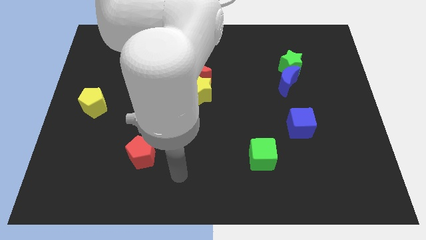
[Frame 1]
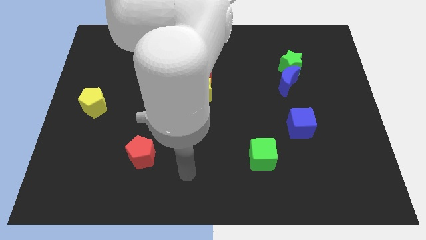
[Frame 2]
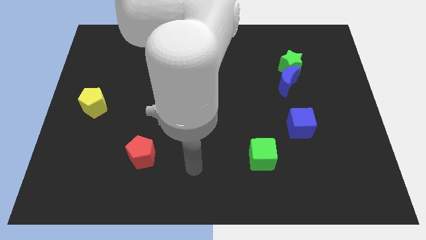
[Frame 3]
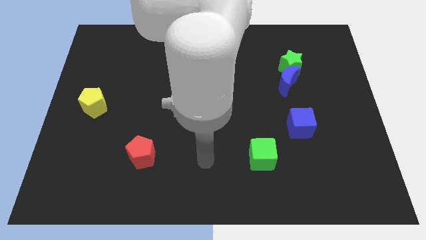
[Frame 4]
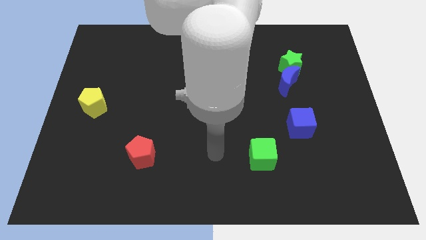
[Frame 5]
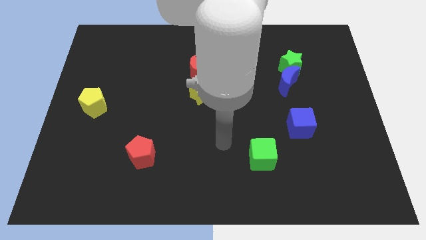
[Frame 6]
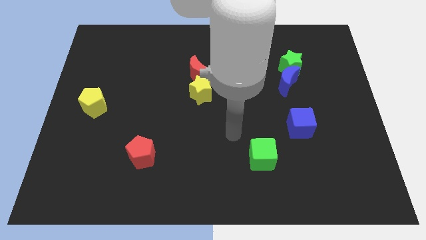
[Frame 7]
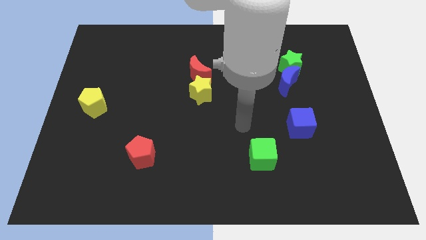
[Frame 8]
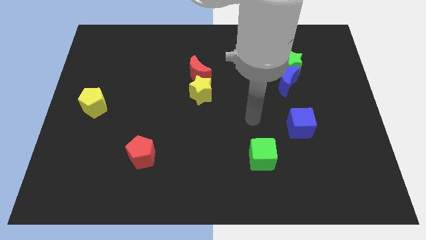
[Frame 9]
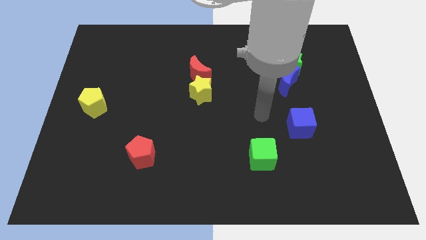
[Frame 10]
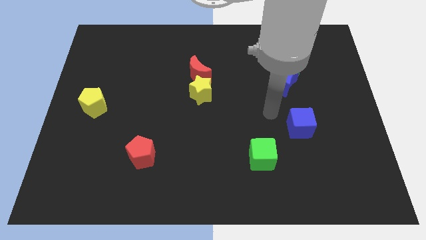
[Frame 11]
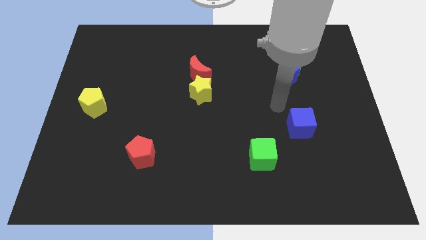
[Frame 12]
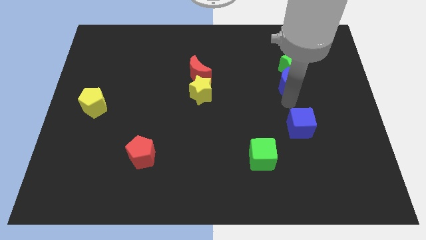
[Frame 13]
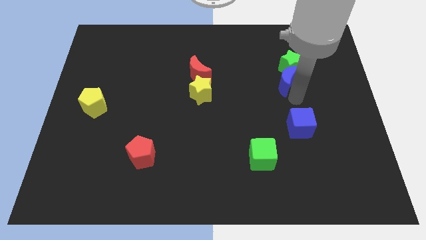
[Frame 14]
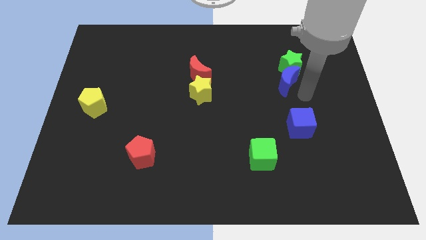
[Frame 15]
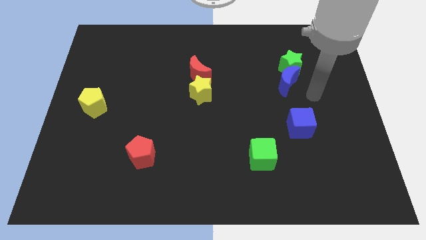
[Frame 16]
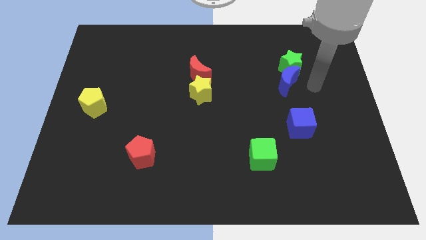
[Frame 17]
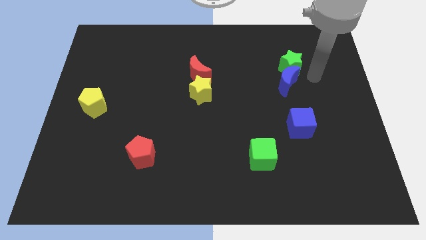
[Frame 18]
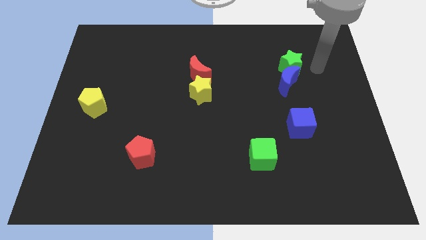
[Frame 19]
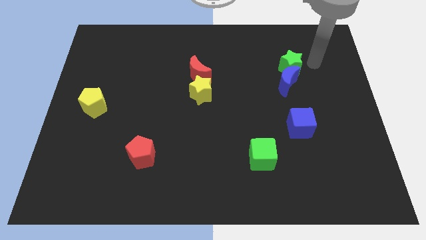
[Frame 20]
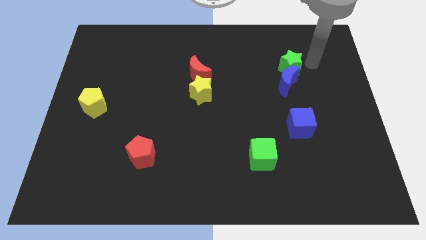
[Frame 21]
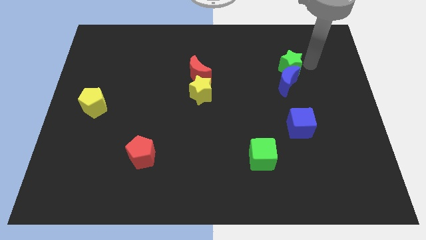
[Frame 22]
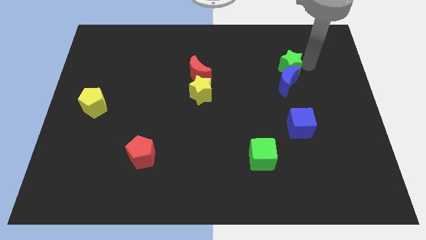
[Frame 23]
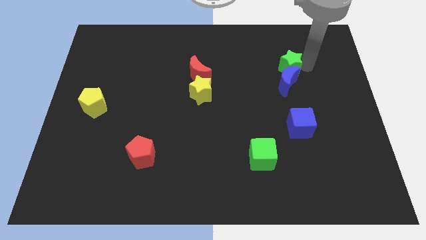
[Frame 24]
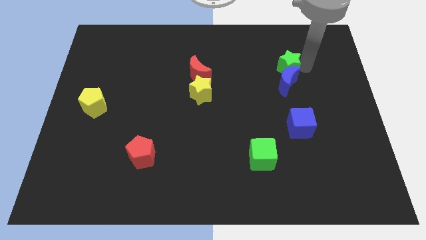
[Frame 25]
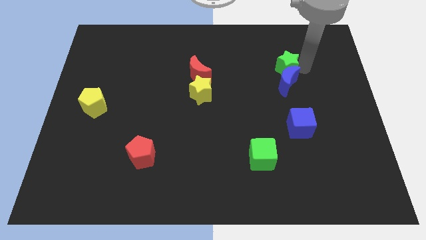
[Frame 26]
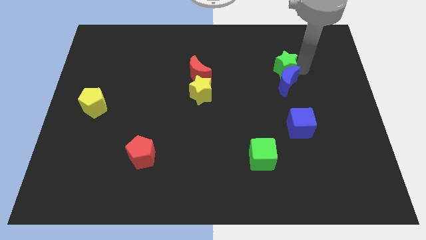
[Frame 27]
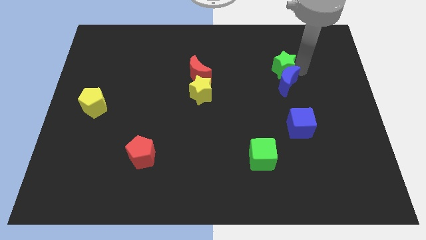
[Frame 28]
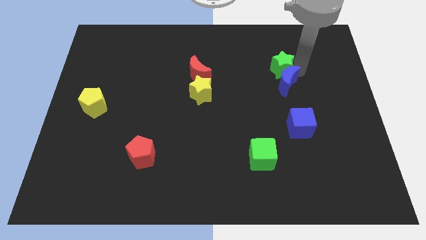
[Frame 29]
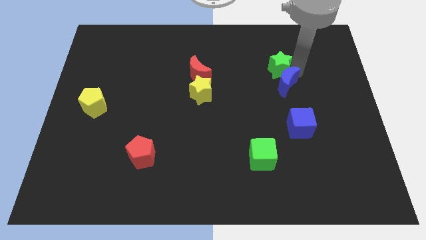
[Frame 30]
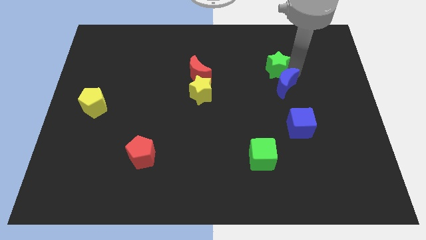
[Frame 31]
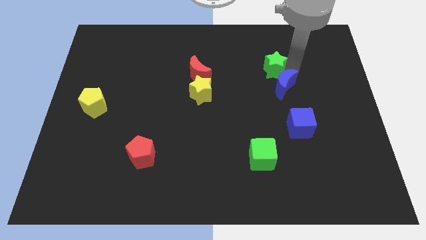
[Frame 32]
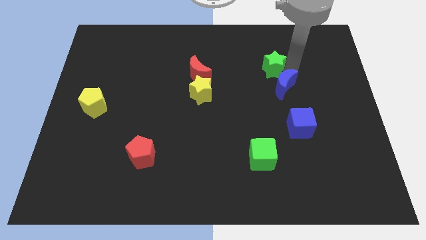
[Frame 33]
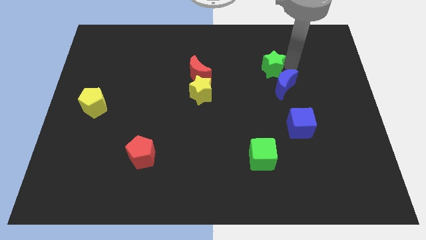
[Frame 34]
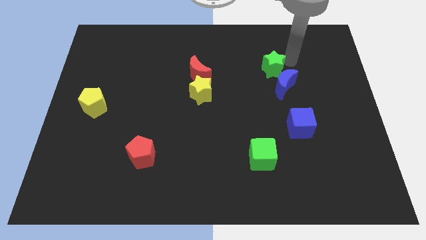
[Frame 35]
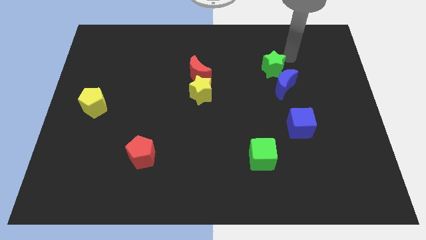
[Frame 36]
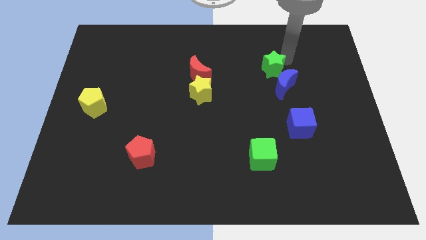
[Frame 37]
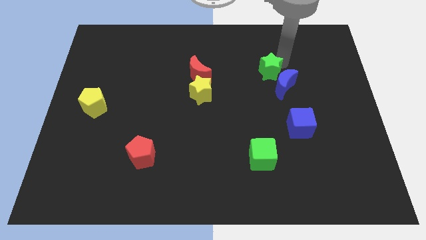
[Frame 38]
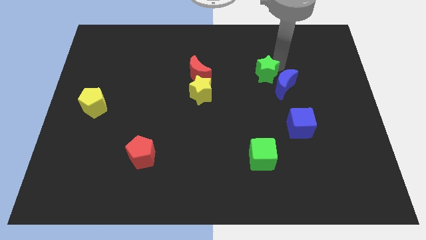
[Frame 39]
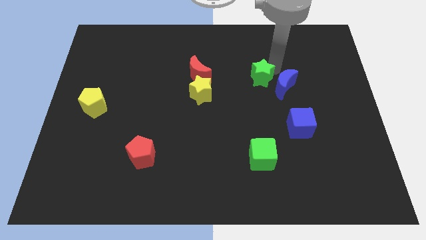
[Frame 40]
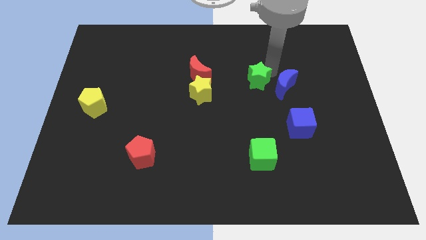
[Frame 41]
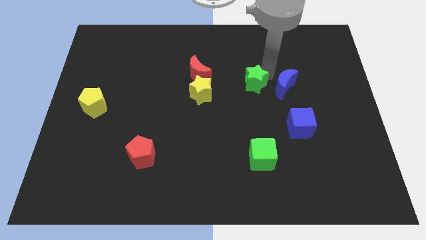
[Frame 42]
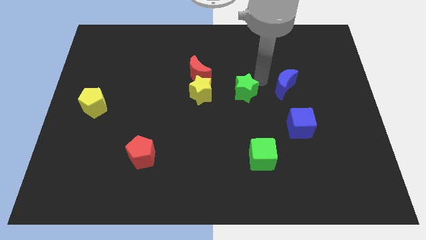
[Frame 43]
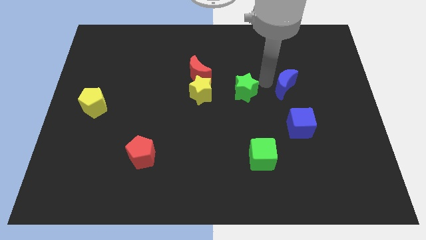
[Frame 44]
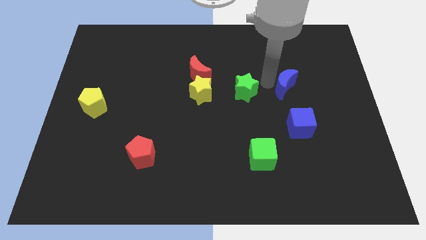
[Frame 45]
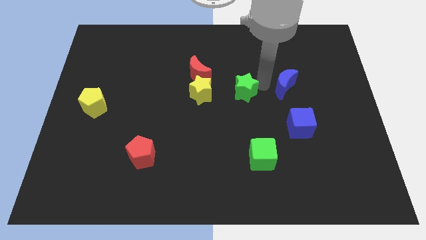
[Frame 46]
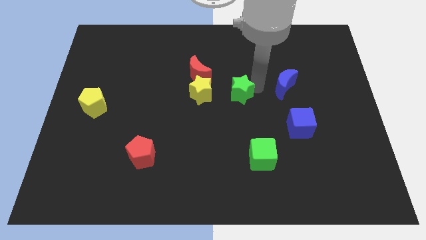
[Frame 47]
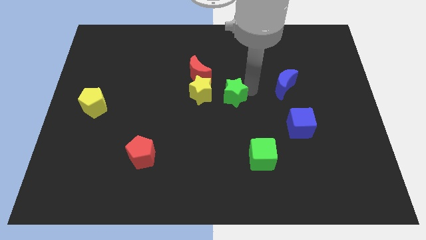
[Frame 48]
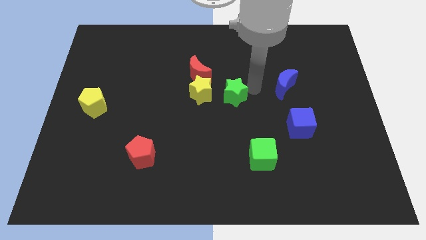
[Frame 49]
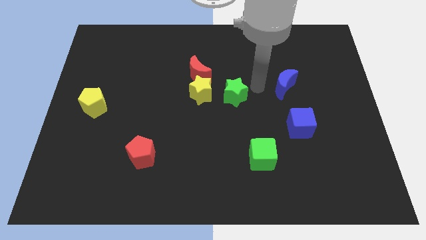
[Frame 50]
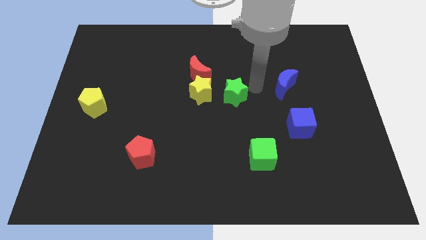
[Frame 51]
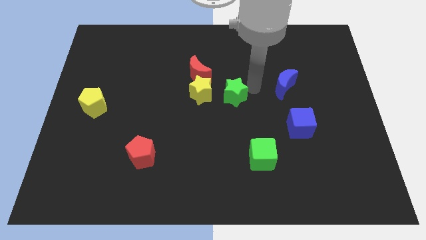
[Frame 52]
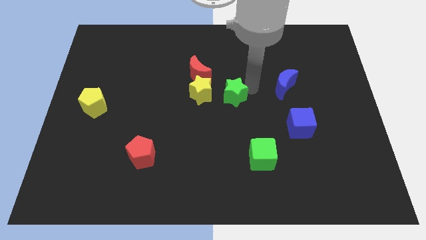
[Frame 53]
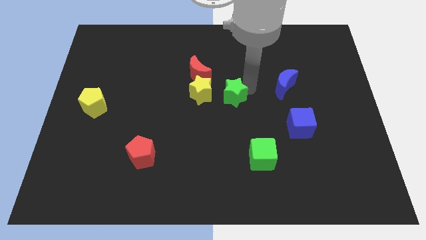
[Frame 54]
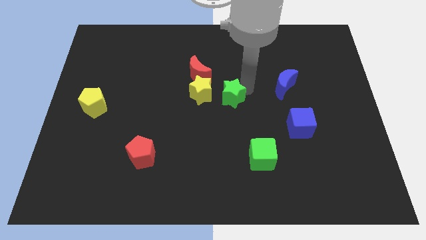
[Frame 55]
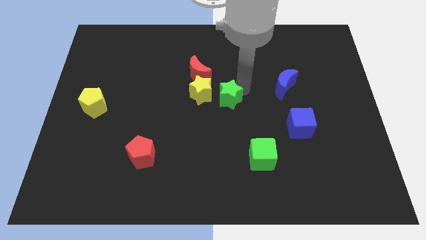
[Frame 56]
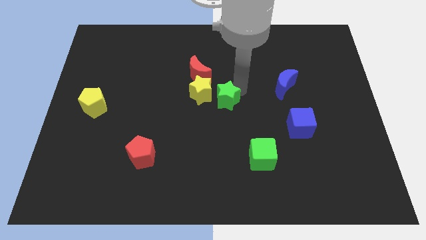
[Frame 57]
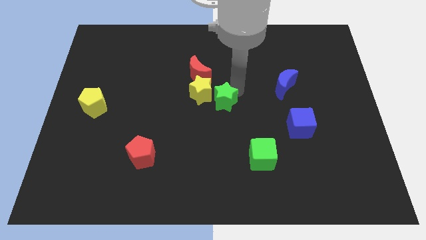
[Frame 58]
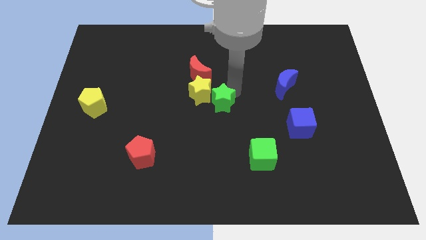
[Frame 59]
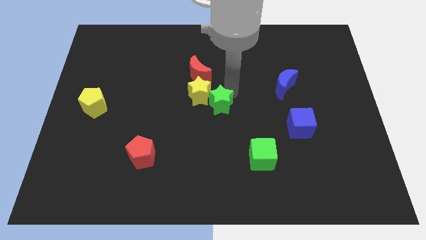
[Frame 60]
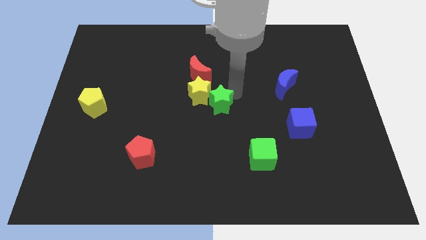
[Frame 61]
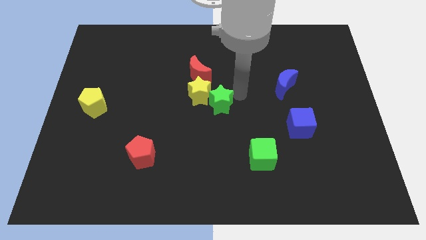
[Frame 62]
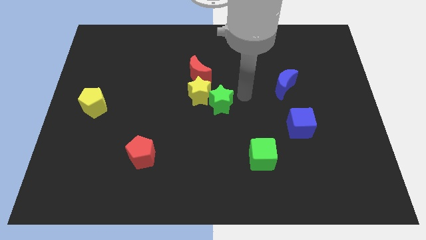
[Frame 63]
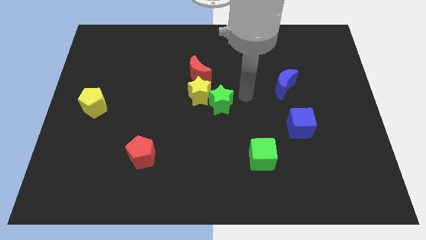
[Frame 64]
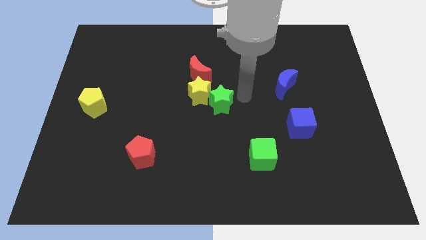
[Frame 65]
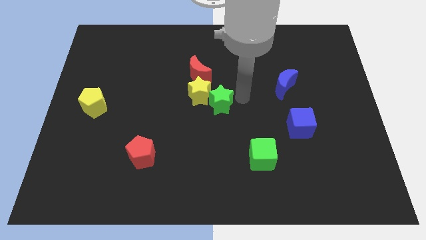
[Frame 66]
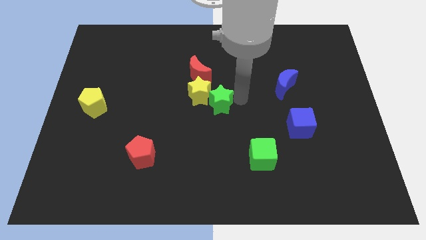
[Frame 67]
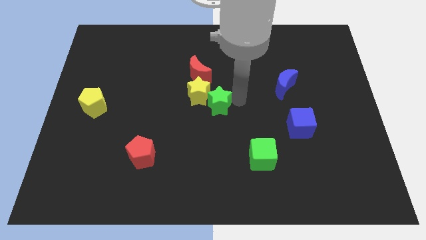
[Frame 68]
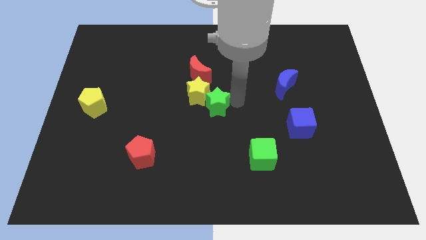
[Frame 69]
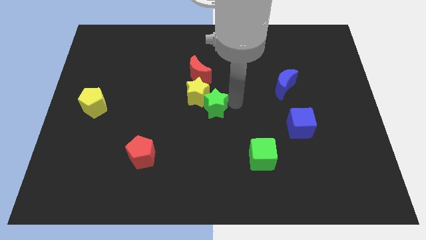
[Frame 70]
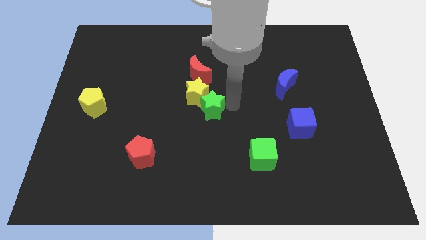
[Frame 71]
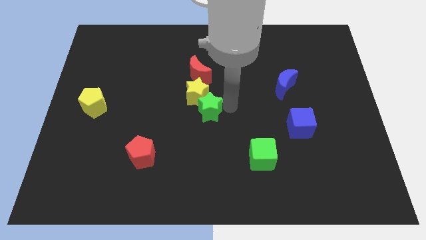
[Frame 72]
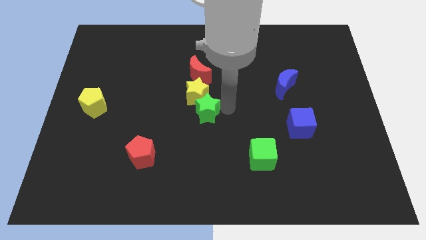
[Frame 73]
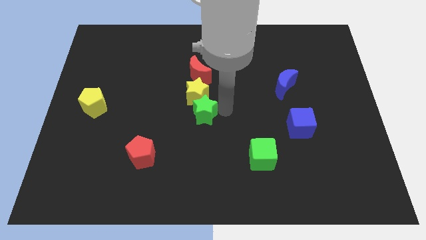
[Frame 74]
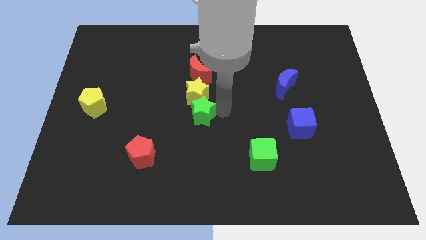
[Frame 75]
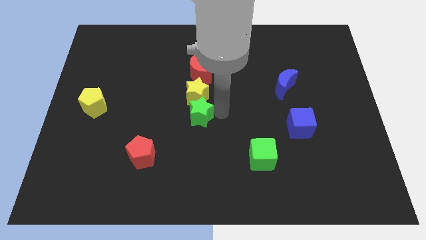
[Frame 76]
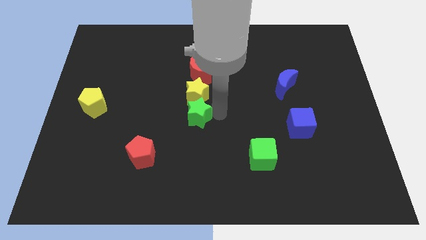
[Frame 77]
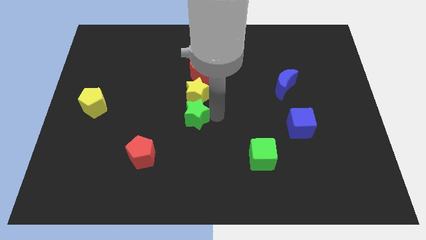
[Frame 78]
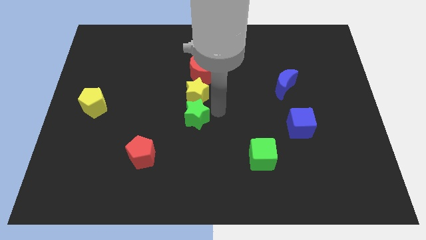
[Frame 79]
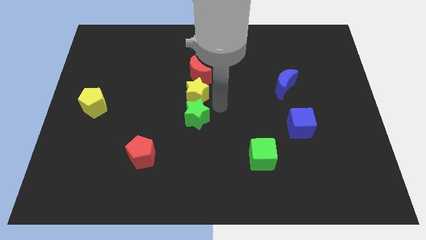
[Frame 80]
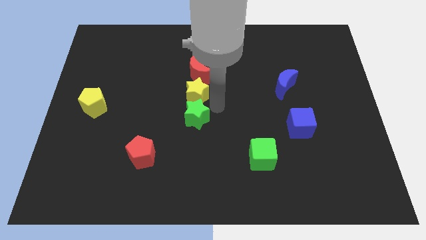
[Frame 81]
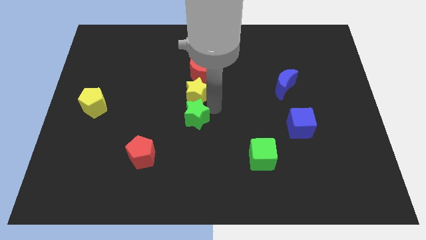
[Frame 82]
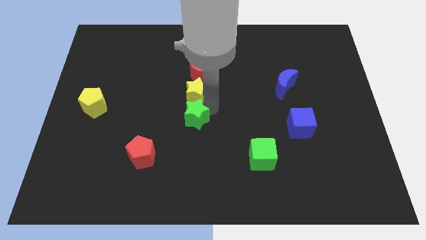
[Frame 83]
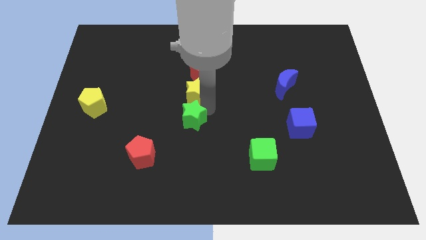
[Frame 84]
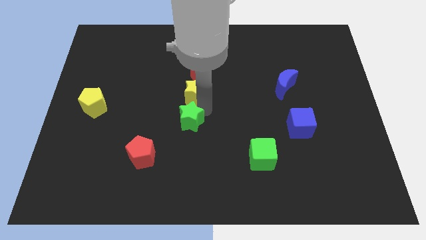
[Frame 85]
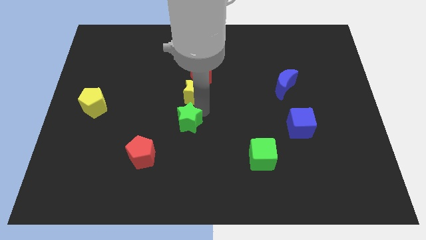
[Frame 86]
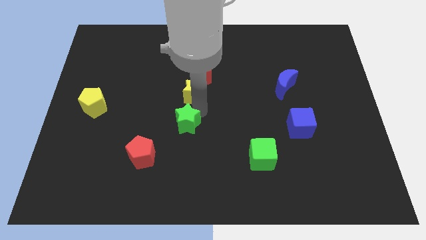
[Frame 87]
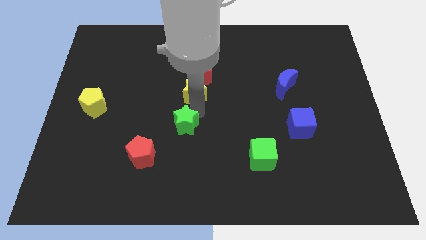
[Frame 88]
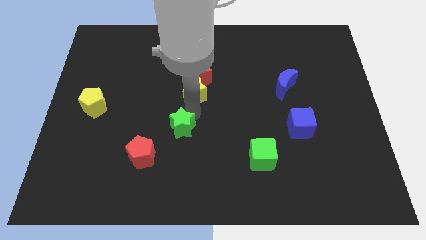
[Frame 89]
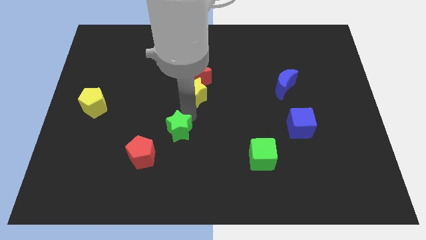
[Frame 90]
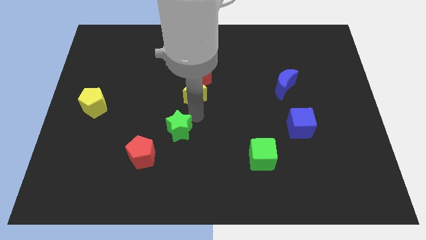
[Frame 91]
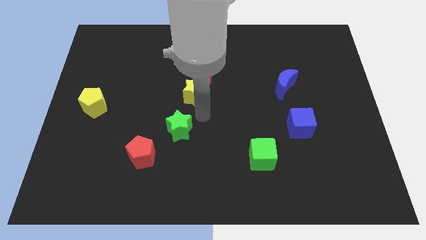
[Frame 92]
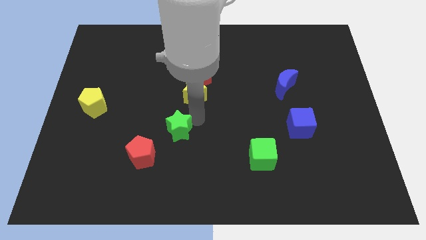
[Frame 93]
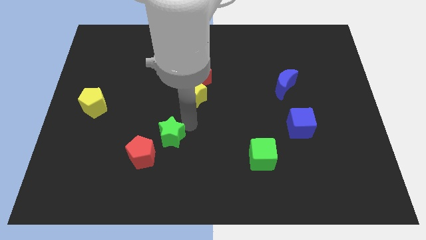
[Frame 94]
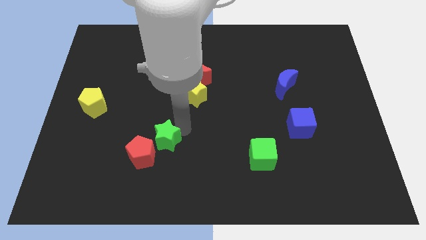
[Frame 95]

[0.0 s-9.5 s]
slide the green star to the red pentagon
